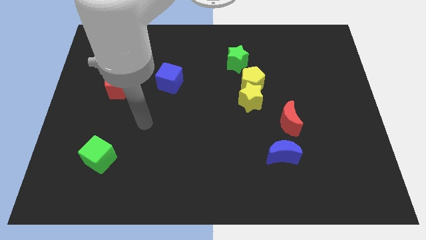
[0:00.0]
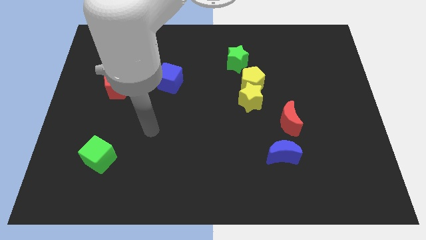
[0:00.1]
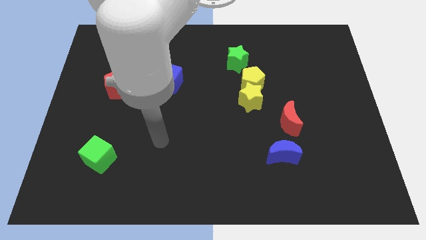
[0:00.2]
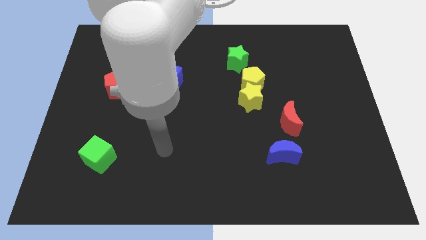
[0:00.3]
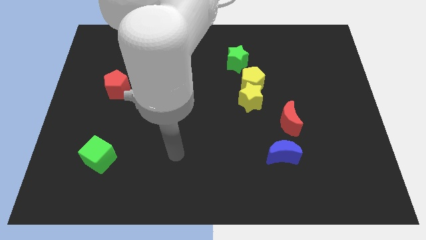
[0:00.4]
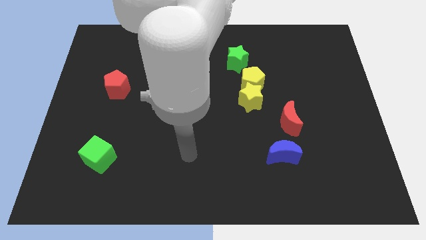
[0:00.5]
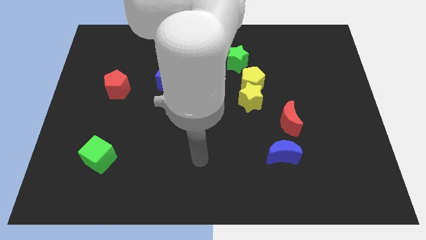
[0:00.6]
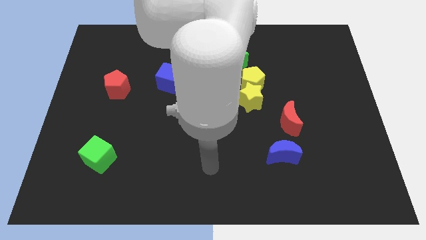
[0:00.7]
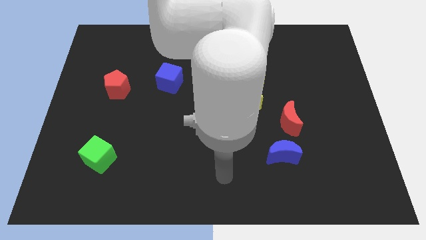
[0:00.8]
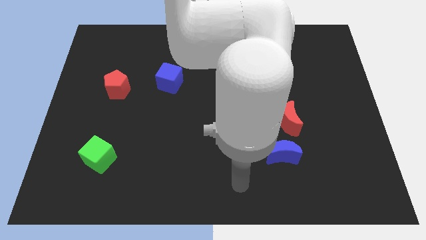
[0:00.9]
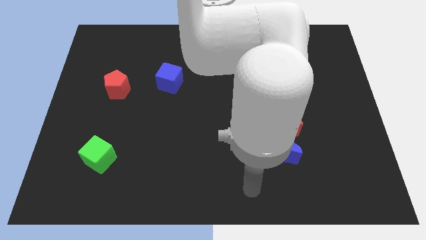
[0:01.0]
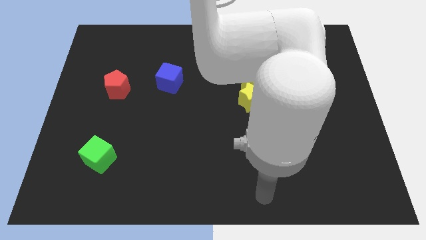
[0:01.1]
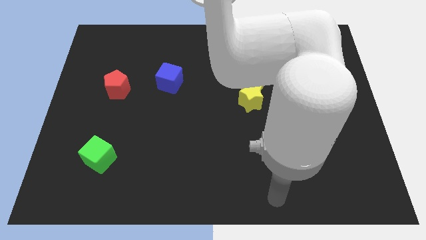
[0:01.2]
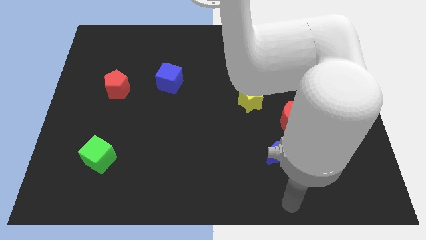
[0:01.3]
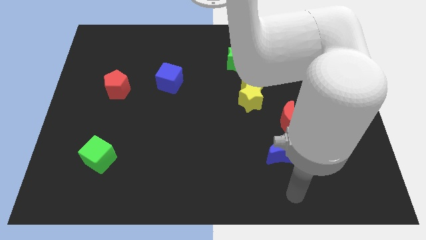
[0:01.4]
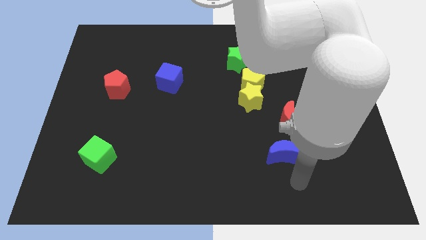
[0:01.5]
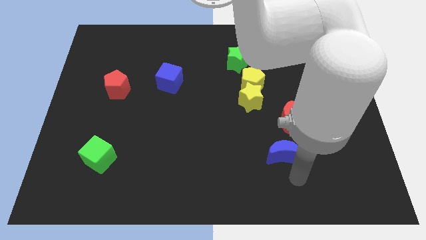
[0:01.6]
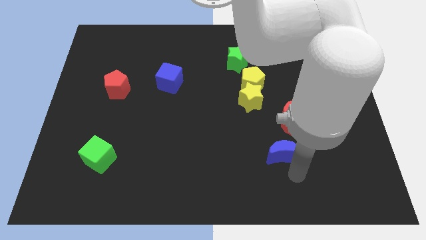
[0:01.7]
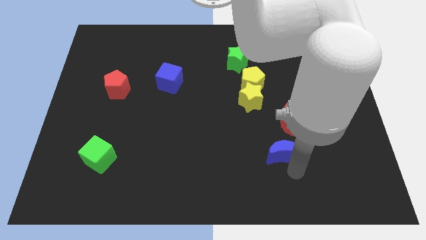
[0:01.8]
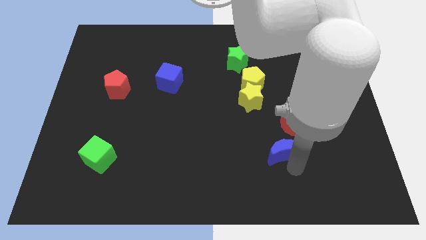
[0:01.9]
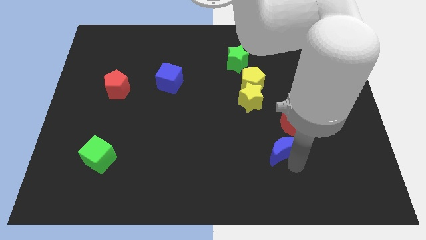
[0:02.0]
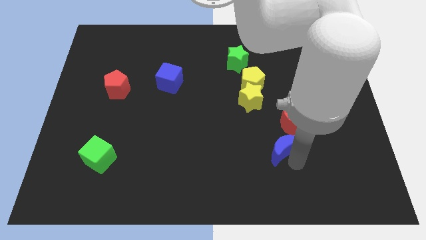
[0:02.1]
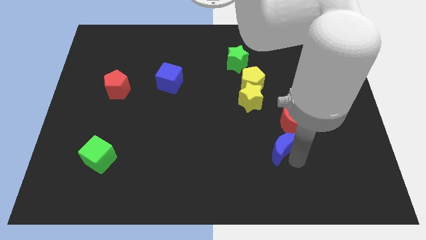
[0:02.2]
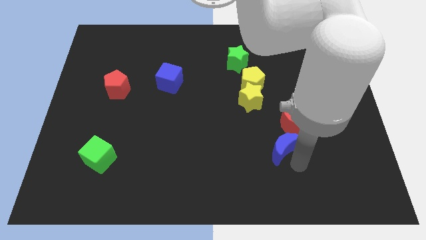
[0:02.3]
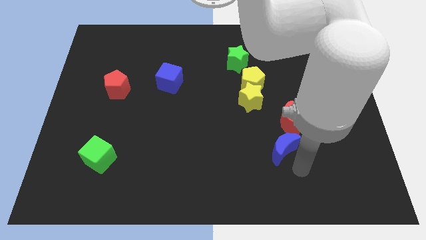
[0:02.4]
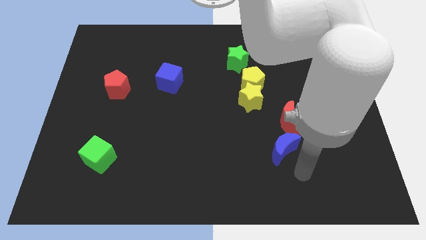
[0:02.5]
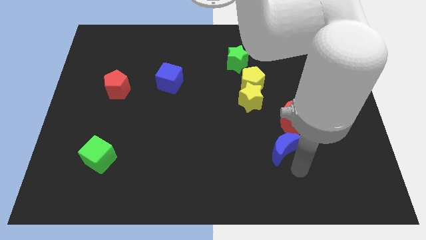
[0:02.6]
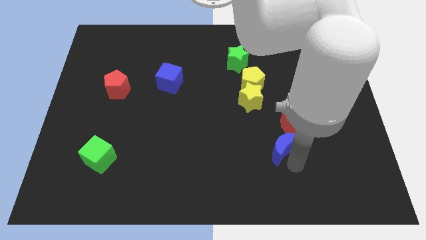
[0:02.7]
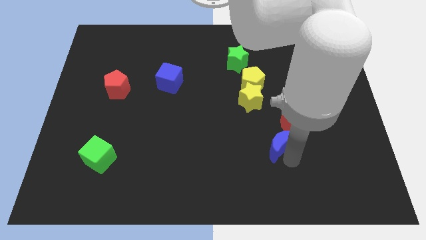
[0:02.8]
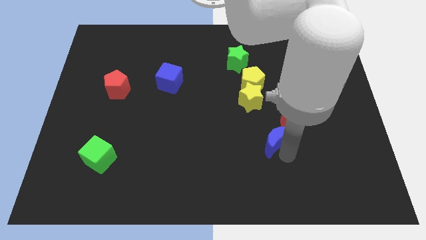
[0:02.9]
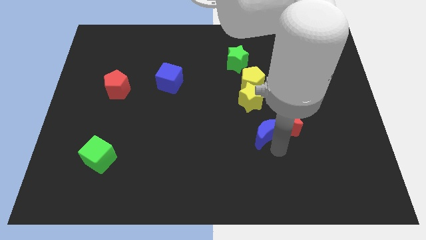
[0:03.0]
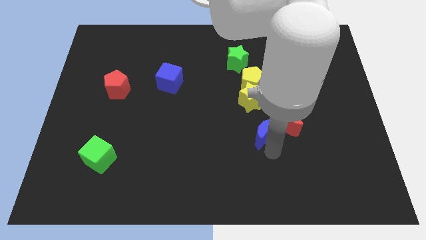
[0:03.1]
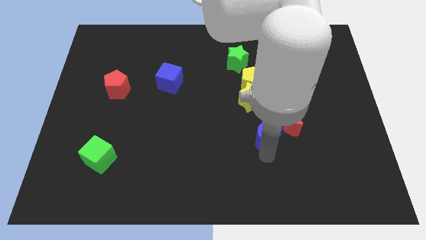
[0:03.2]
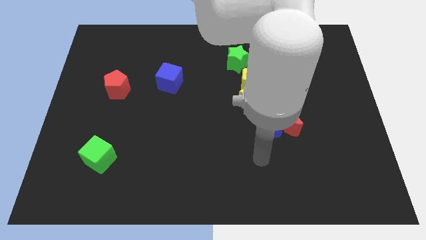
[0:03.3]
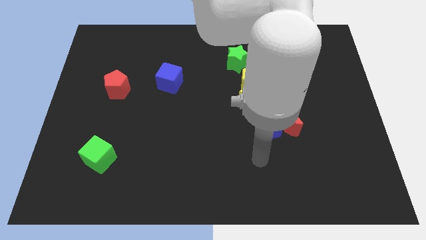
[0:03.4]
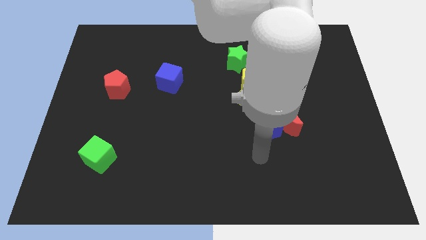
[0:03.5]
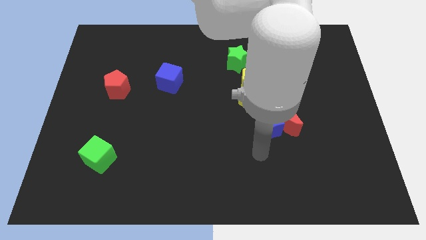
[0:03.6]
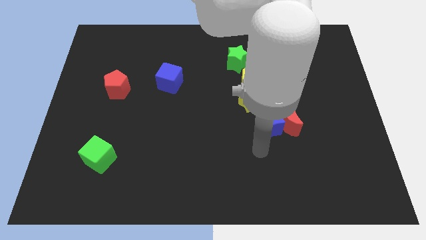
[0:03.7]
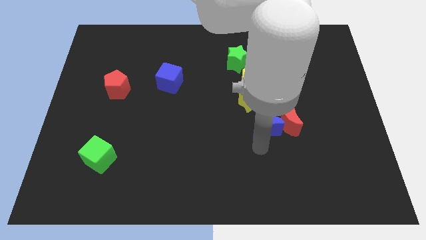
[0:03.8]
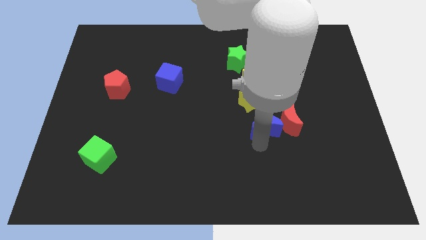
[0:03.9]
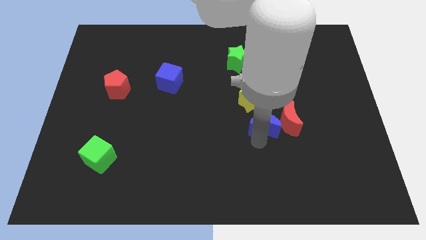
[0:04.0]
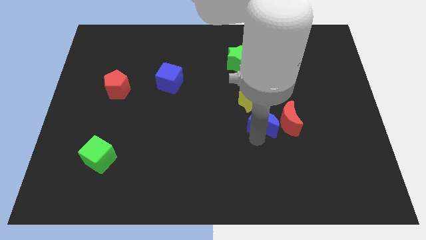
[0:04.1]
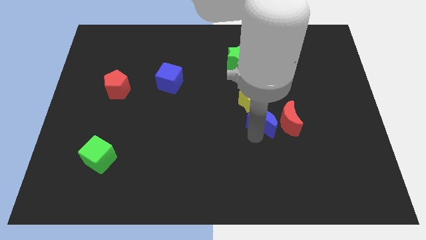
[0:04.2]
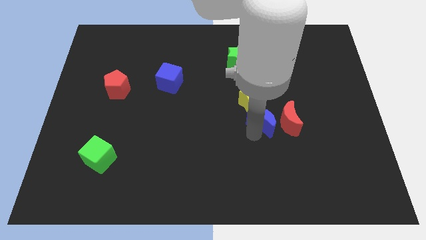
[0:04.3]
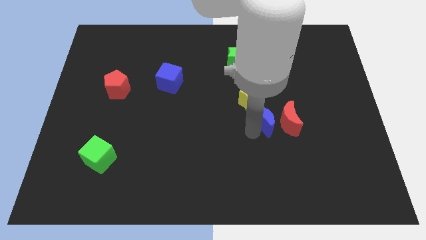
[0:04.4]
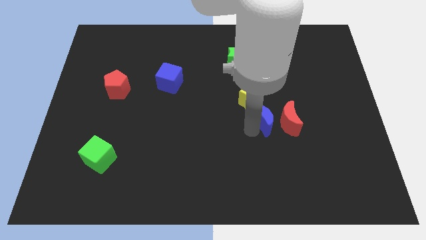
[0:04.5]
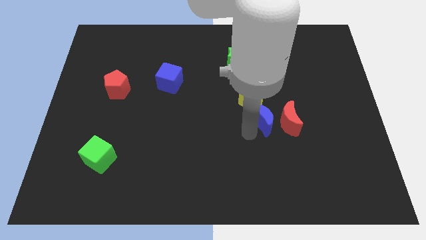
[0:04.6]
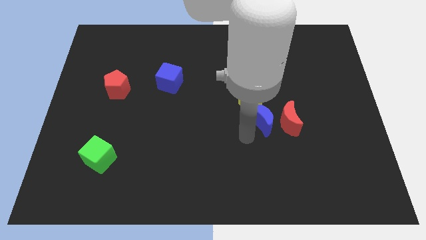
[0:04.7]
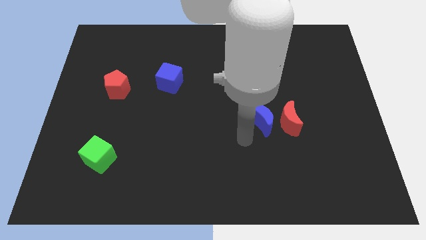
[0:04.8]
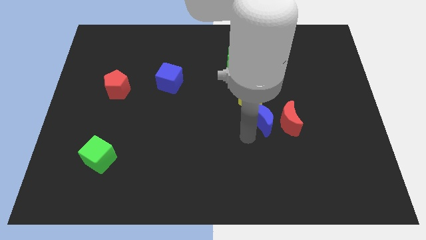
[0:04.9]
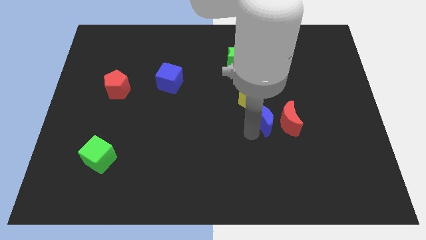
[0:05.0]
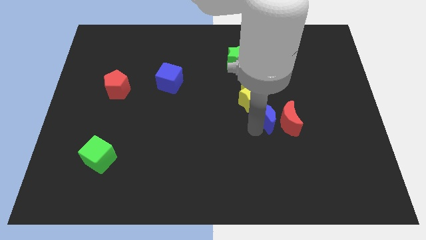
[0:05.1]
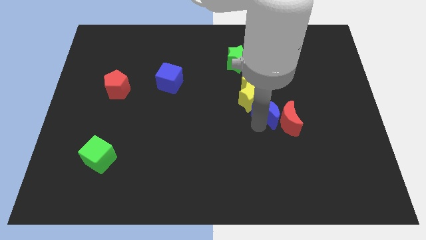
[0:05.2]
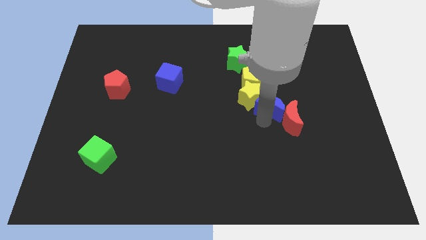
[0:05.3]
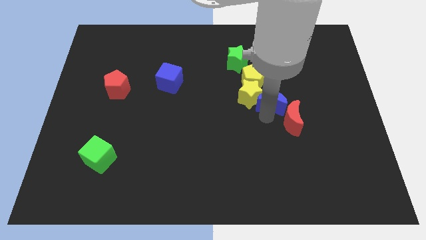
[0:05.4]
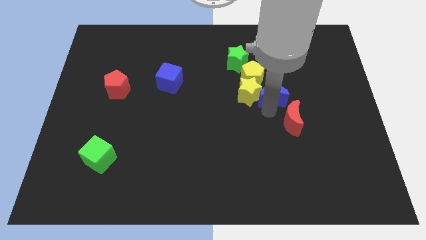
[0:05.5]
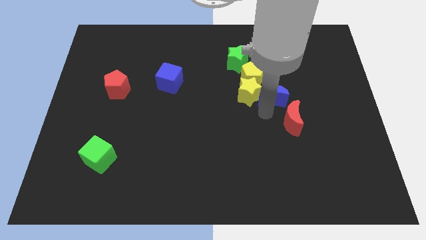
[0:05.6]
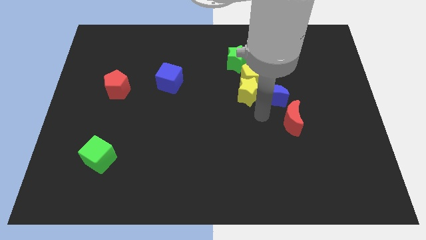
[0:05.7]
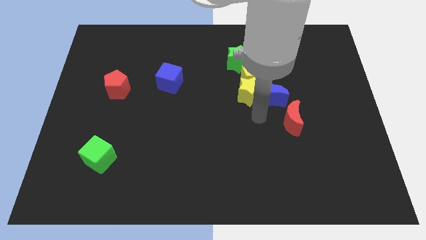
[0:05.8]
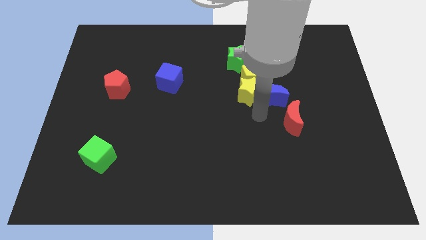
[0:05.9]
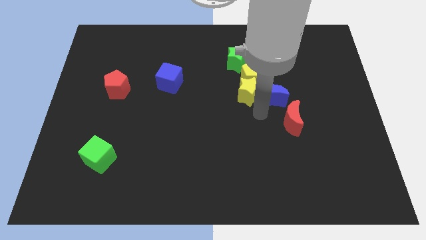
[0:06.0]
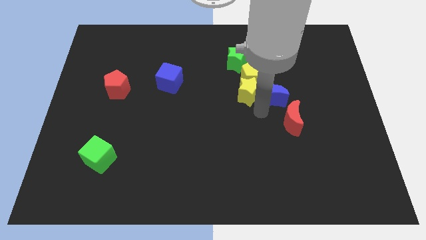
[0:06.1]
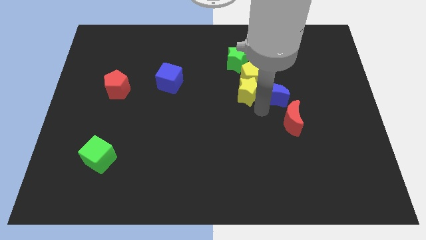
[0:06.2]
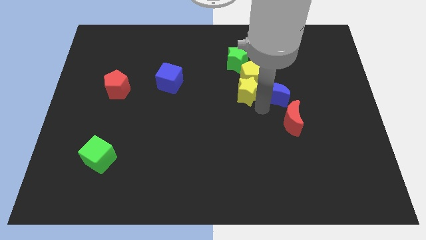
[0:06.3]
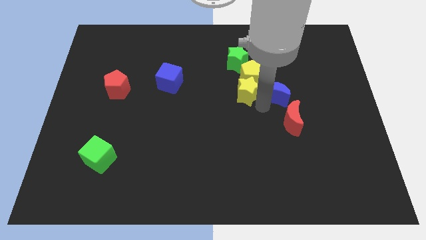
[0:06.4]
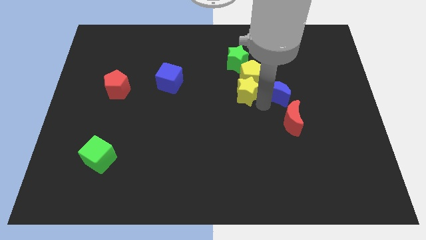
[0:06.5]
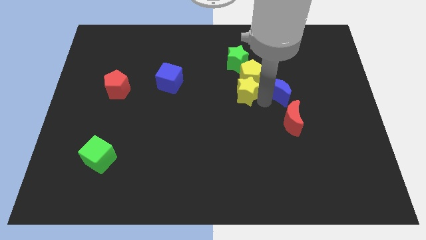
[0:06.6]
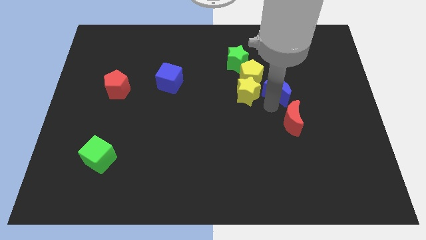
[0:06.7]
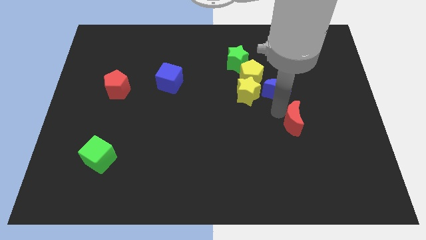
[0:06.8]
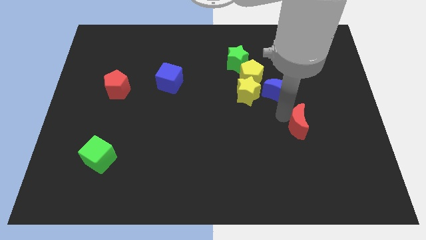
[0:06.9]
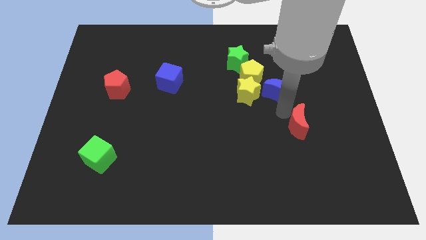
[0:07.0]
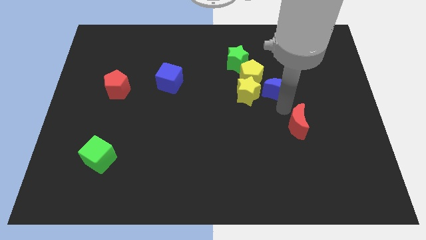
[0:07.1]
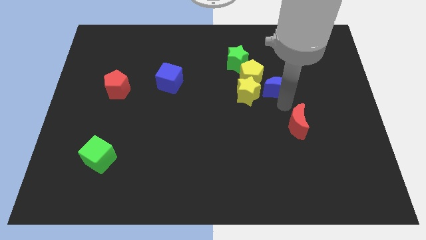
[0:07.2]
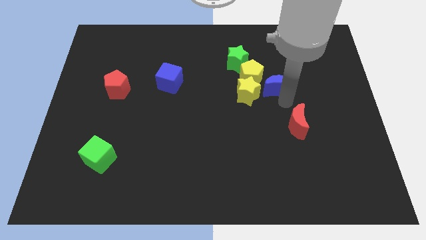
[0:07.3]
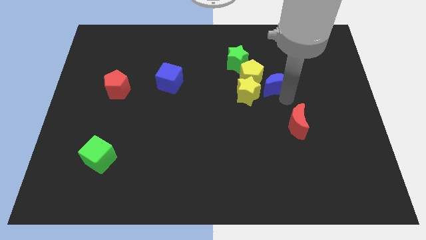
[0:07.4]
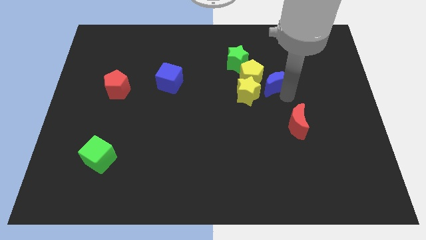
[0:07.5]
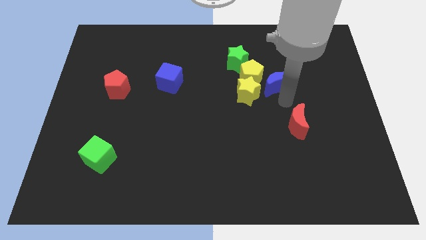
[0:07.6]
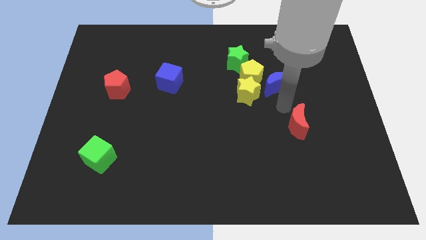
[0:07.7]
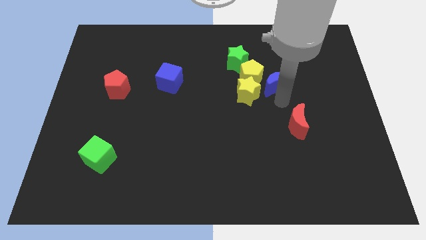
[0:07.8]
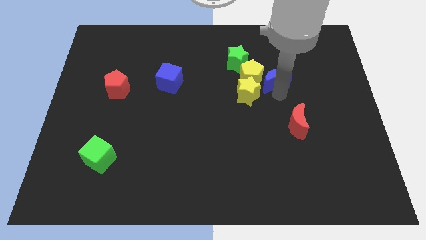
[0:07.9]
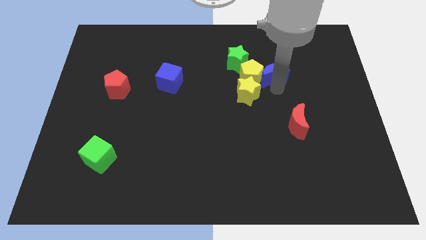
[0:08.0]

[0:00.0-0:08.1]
slide the blue moon to the top right side of the yellow pentagon
